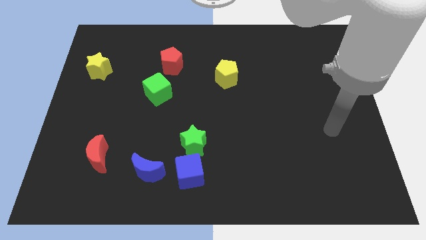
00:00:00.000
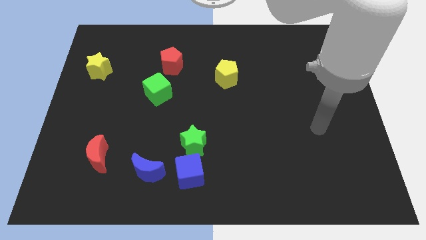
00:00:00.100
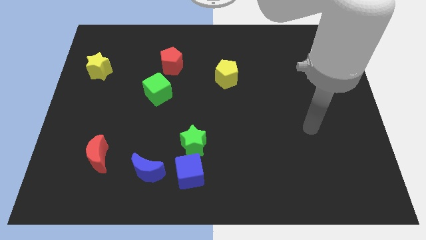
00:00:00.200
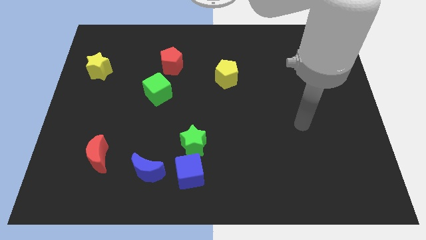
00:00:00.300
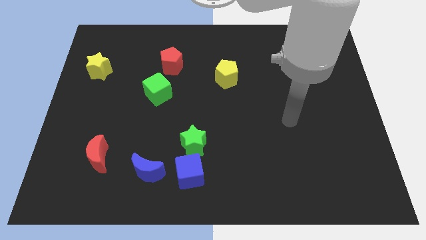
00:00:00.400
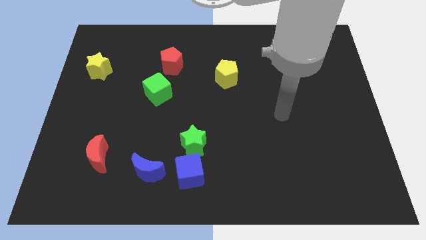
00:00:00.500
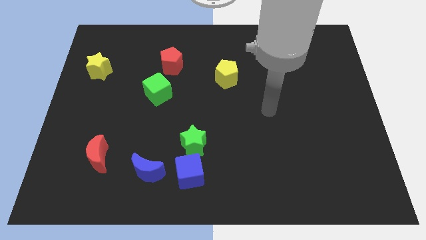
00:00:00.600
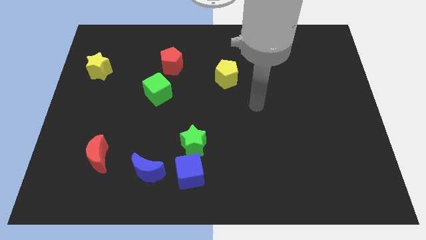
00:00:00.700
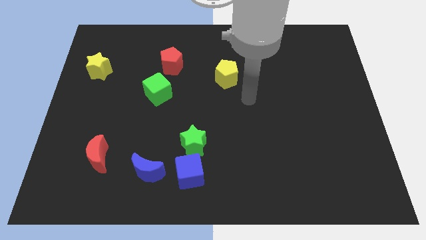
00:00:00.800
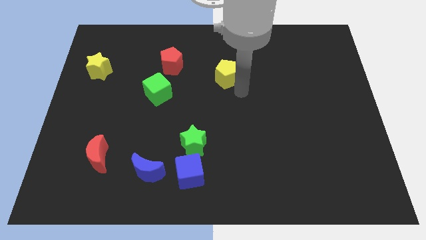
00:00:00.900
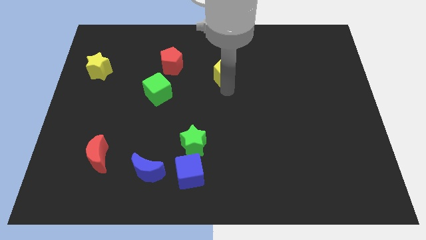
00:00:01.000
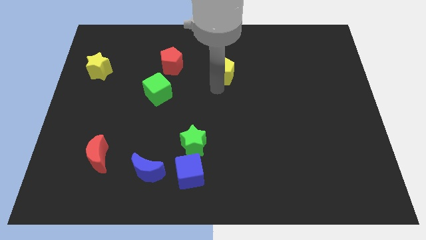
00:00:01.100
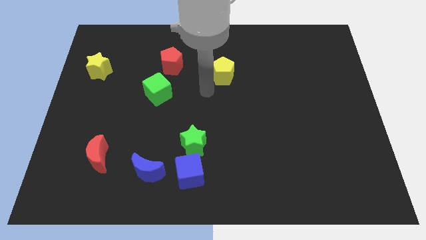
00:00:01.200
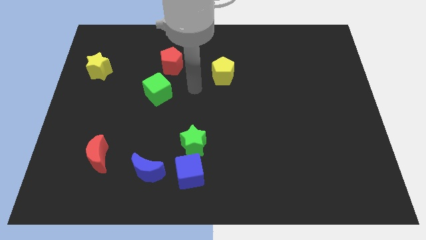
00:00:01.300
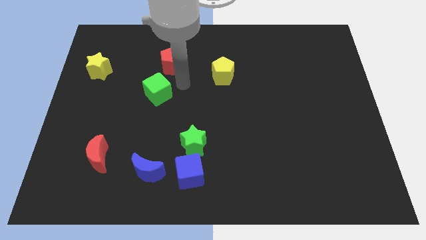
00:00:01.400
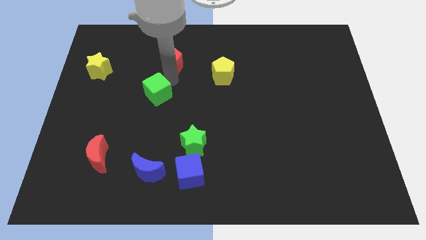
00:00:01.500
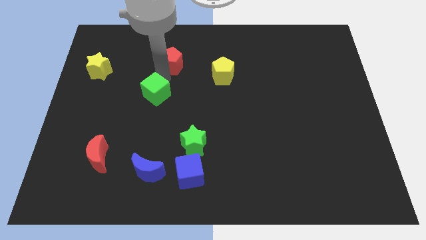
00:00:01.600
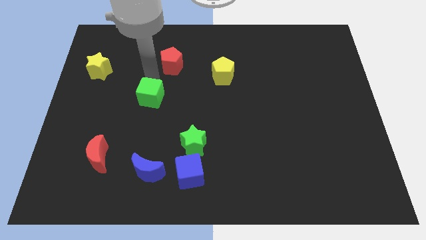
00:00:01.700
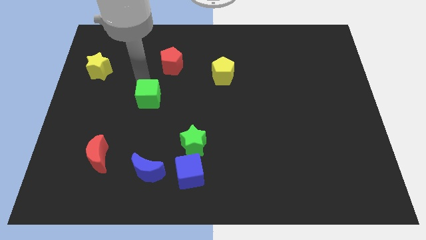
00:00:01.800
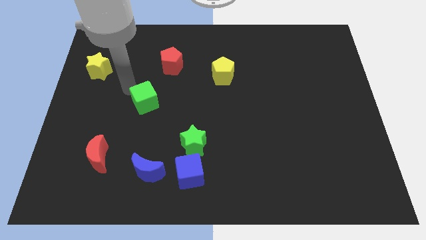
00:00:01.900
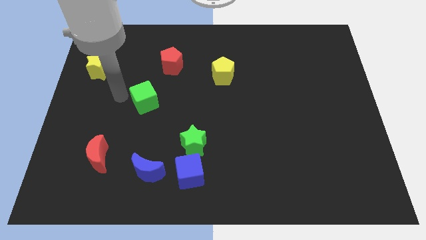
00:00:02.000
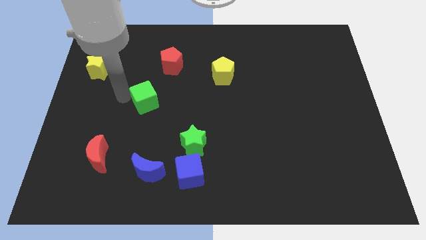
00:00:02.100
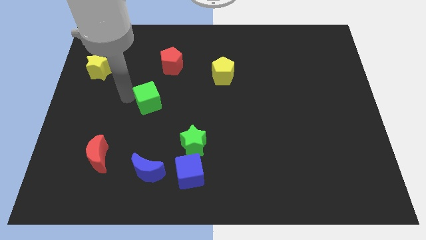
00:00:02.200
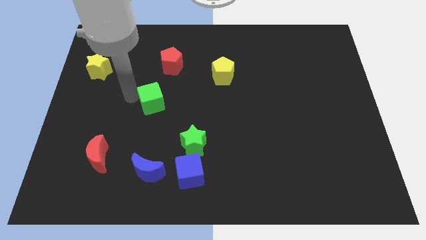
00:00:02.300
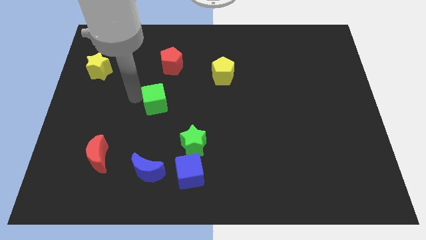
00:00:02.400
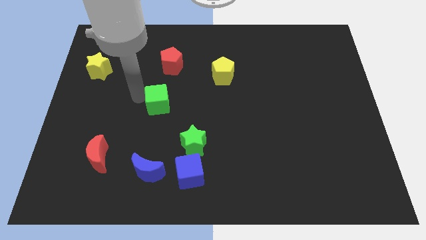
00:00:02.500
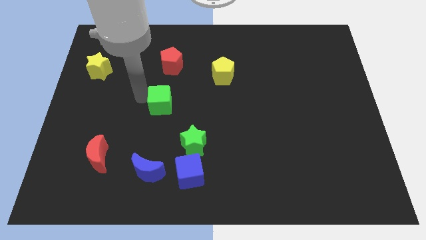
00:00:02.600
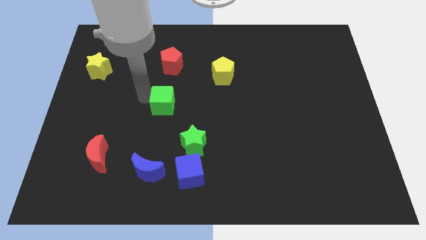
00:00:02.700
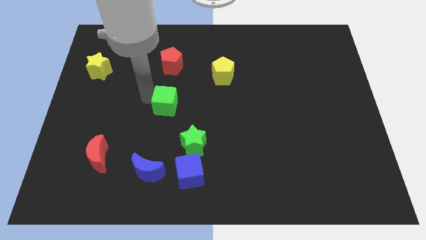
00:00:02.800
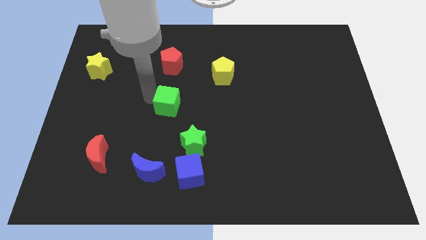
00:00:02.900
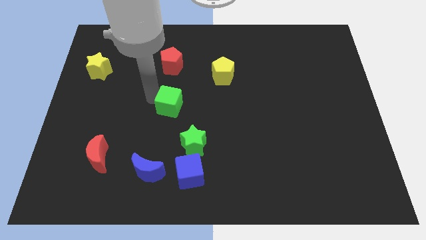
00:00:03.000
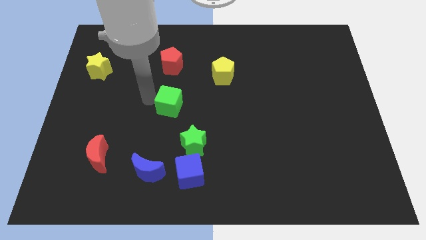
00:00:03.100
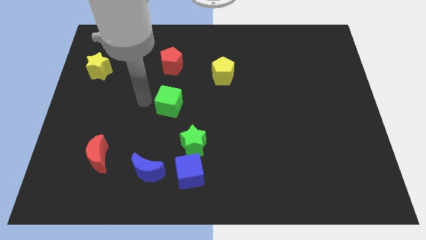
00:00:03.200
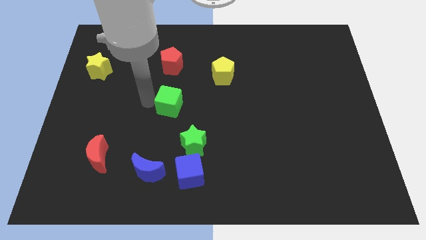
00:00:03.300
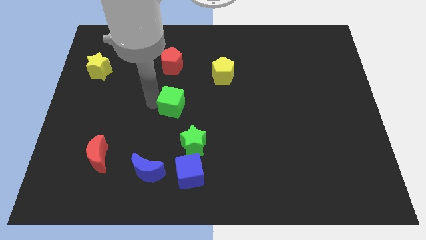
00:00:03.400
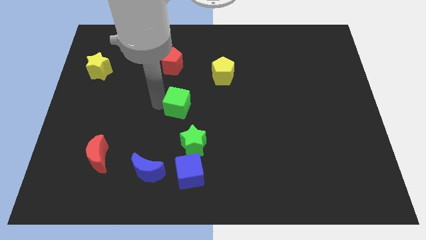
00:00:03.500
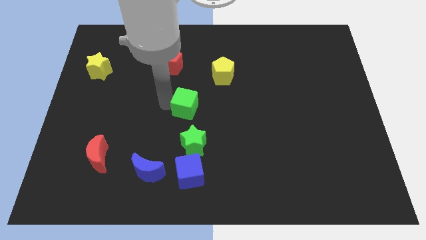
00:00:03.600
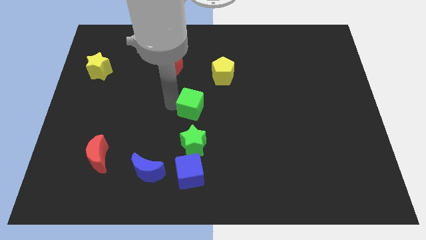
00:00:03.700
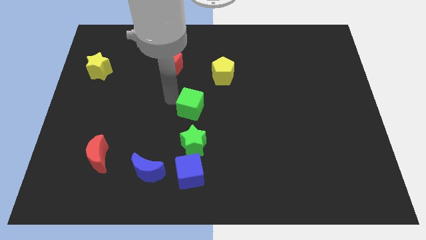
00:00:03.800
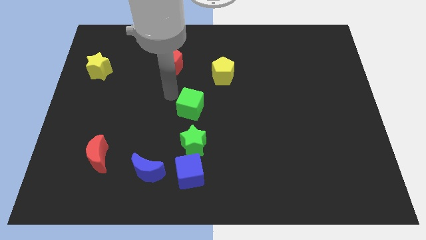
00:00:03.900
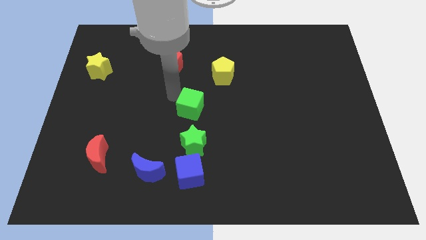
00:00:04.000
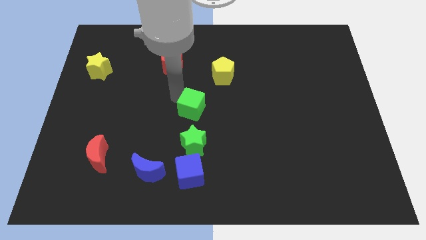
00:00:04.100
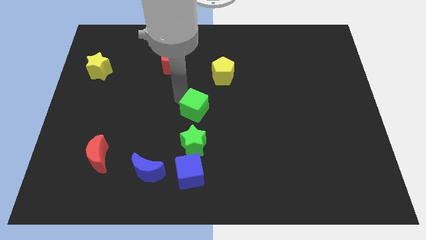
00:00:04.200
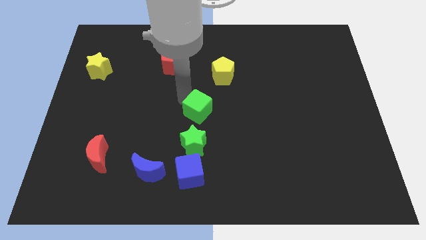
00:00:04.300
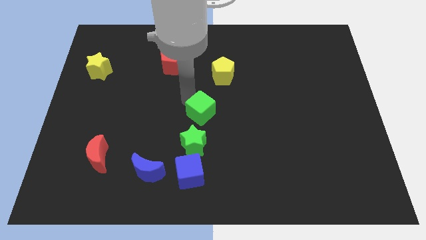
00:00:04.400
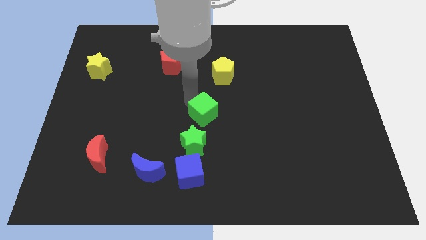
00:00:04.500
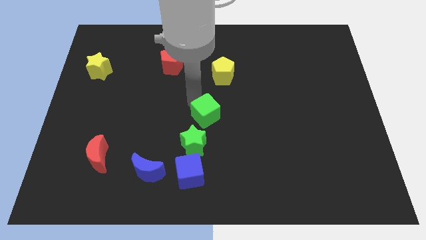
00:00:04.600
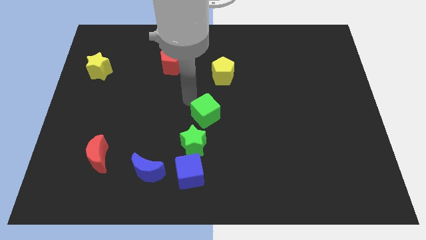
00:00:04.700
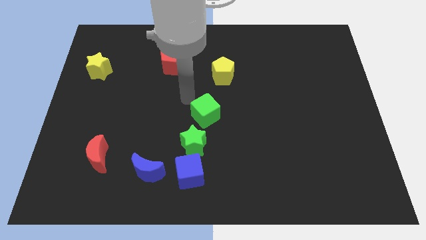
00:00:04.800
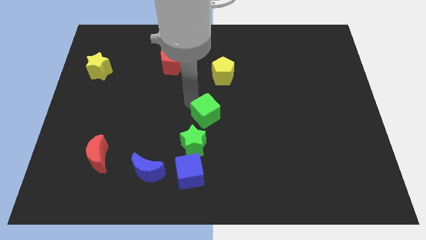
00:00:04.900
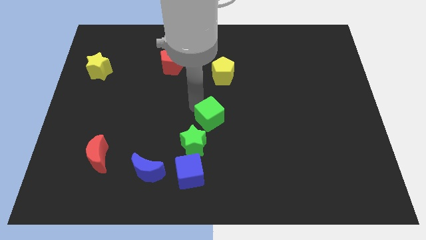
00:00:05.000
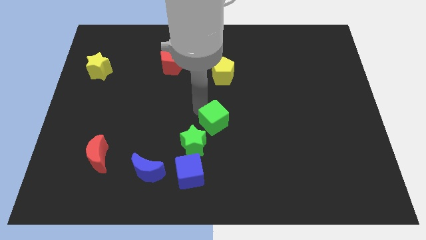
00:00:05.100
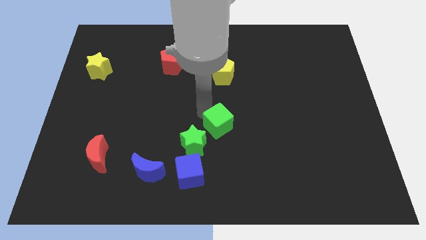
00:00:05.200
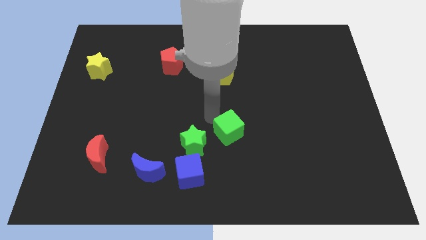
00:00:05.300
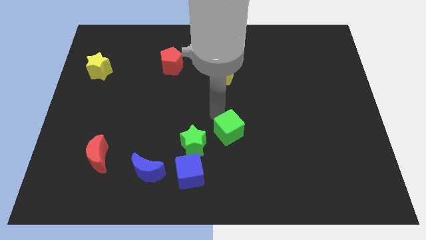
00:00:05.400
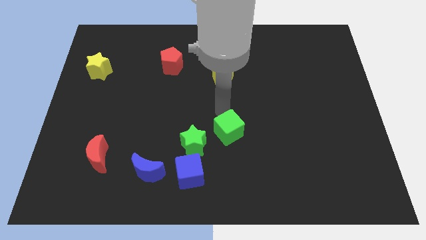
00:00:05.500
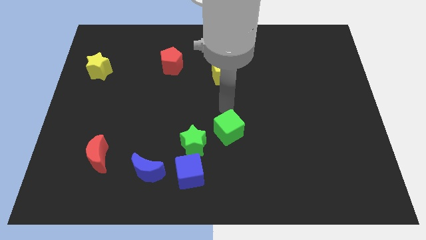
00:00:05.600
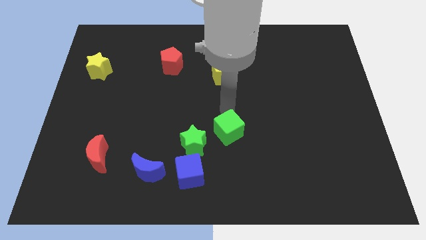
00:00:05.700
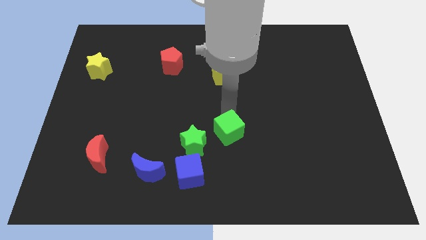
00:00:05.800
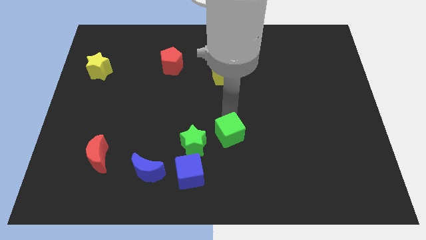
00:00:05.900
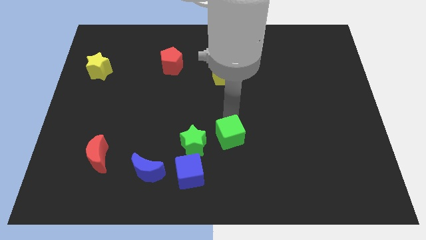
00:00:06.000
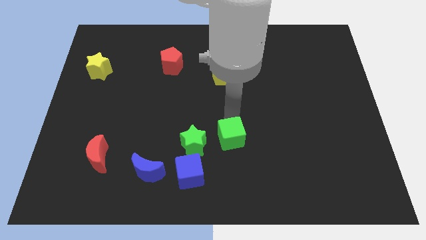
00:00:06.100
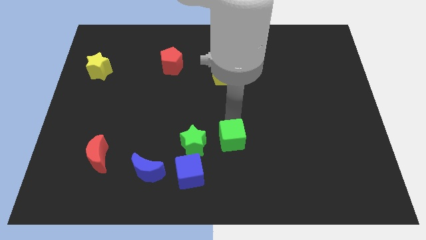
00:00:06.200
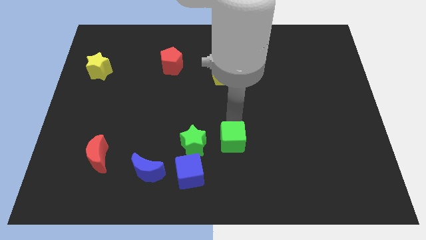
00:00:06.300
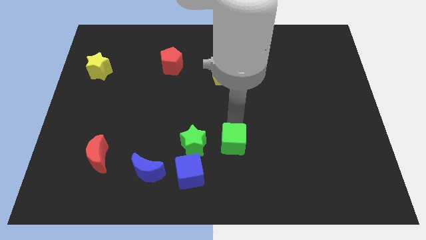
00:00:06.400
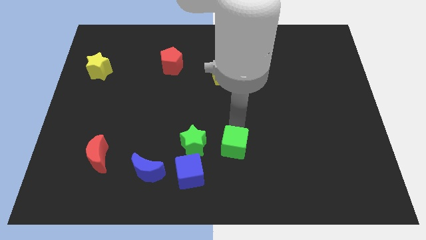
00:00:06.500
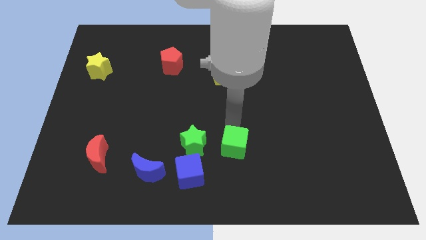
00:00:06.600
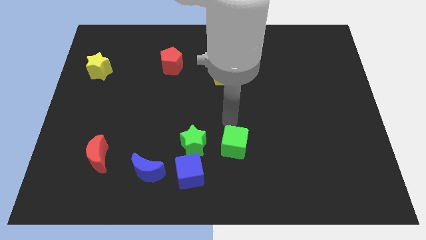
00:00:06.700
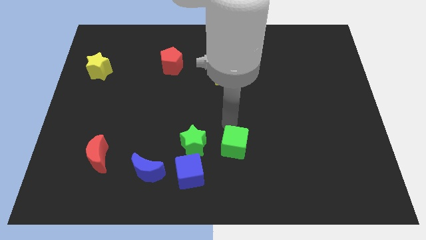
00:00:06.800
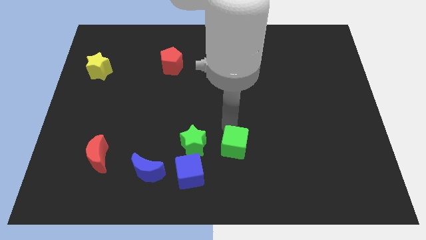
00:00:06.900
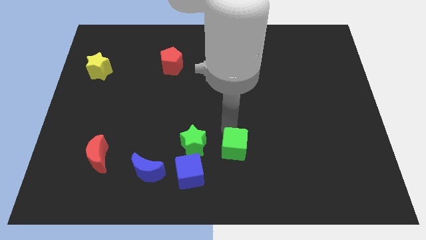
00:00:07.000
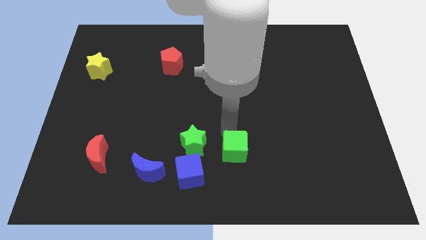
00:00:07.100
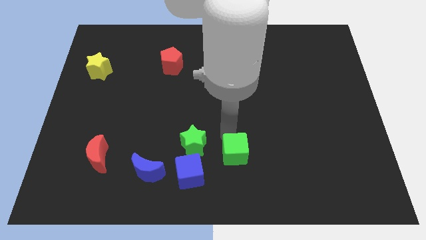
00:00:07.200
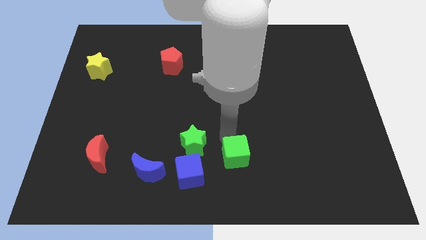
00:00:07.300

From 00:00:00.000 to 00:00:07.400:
slide the green cube just right of the blue cube
